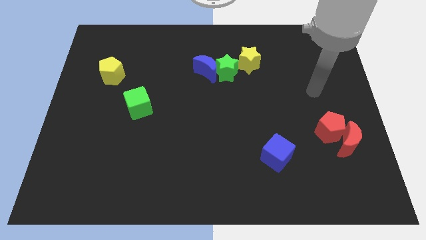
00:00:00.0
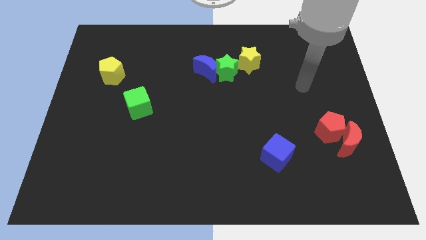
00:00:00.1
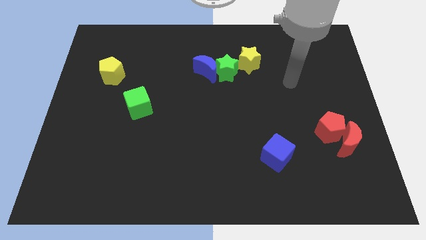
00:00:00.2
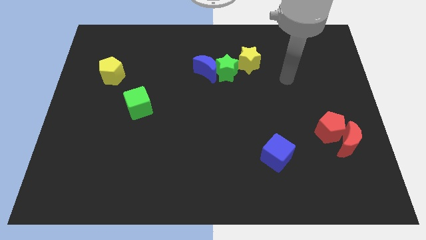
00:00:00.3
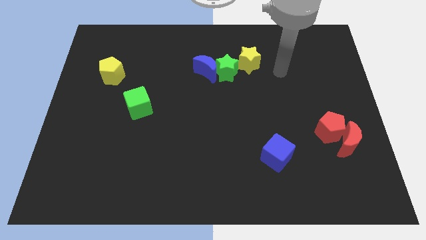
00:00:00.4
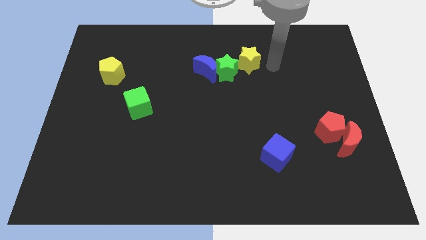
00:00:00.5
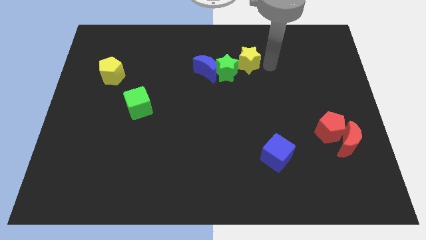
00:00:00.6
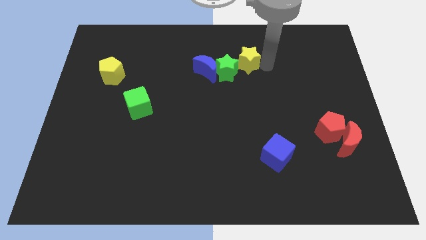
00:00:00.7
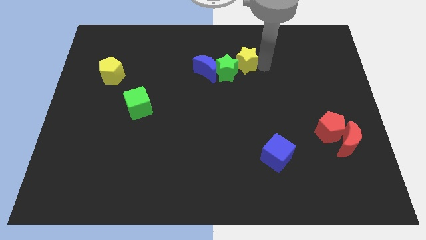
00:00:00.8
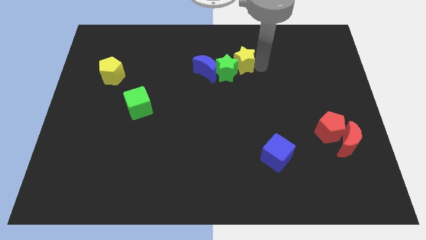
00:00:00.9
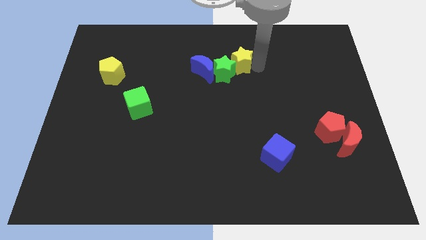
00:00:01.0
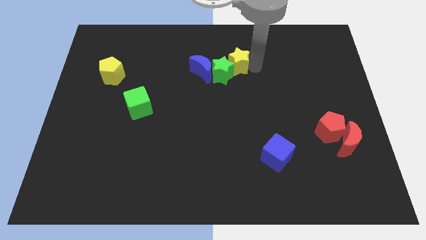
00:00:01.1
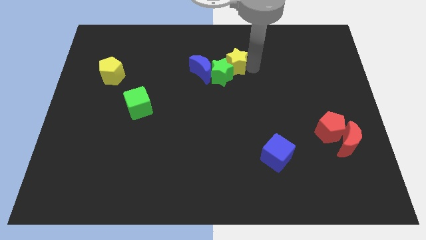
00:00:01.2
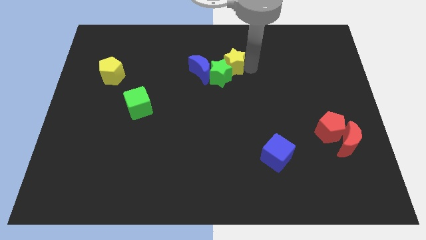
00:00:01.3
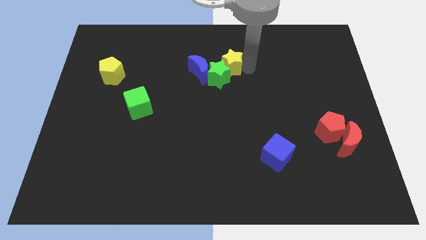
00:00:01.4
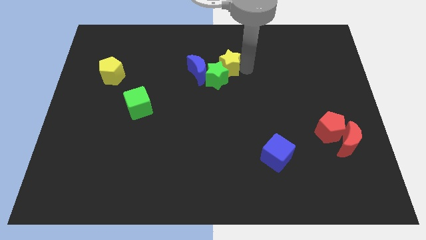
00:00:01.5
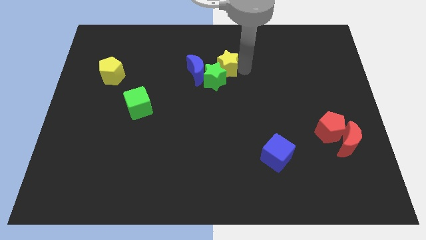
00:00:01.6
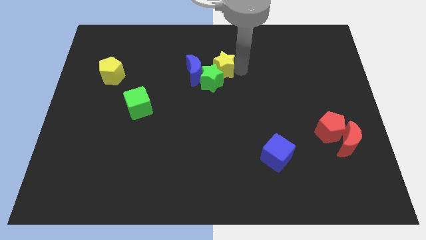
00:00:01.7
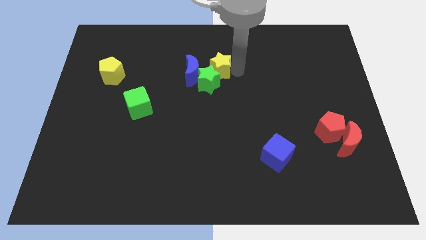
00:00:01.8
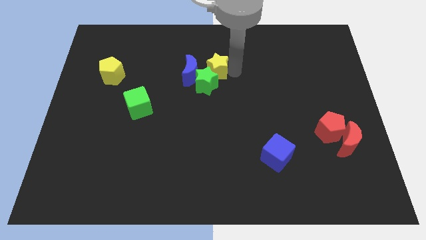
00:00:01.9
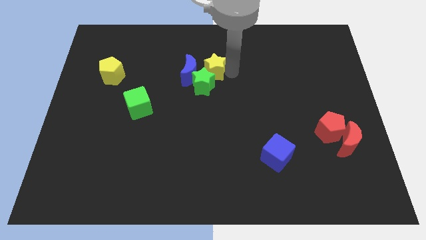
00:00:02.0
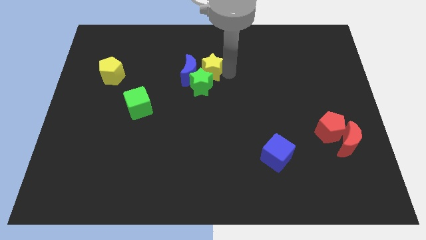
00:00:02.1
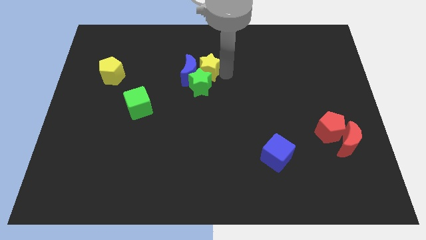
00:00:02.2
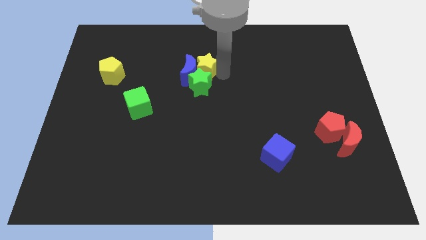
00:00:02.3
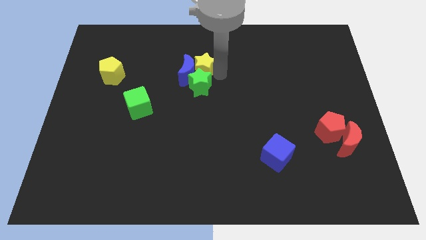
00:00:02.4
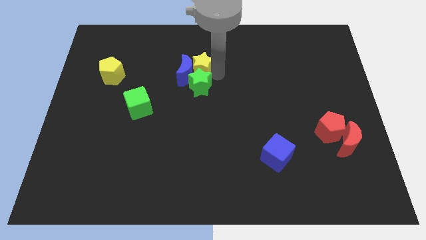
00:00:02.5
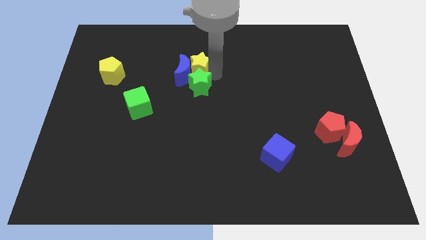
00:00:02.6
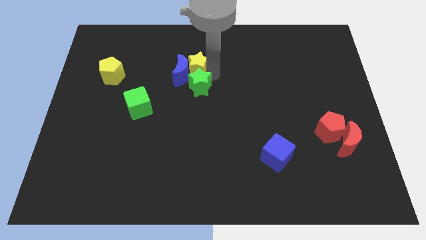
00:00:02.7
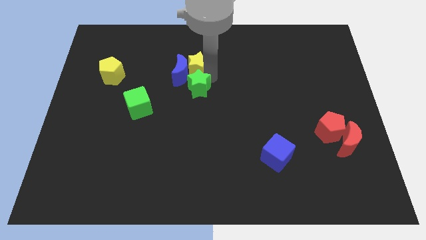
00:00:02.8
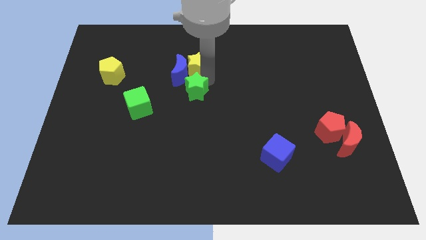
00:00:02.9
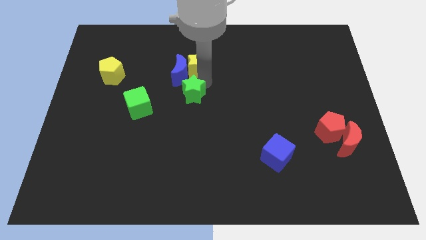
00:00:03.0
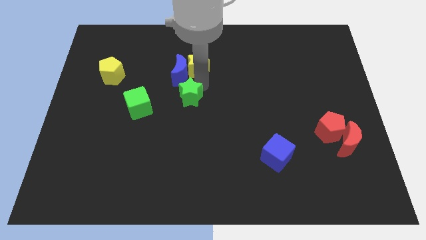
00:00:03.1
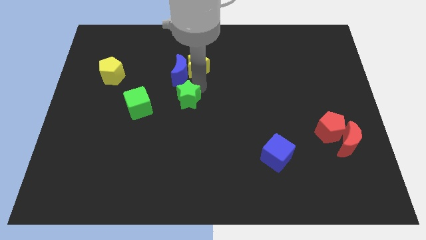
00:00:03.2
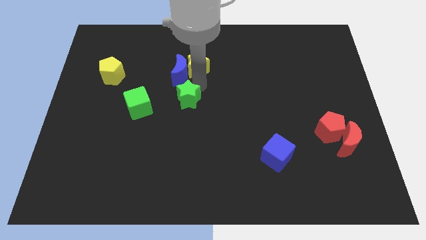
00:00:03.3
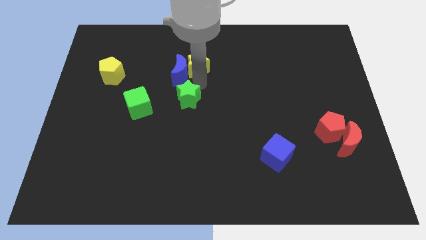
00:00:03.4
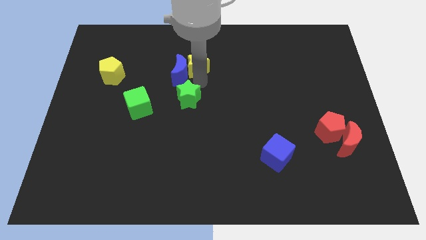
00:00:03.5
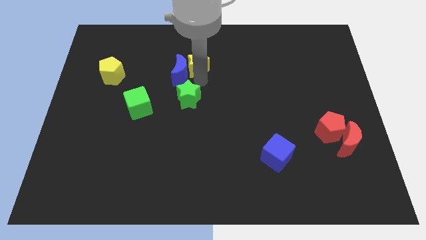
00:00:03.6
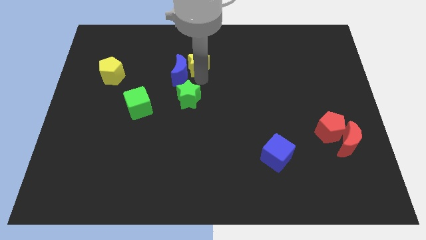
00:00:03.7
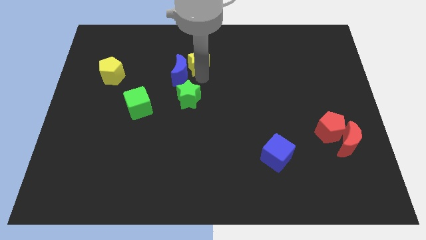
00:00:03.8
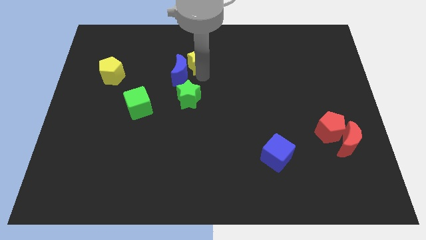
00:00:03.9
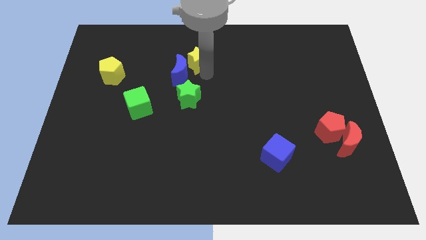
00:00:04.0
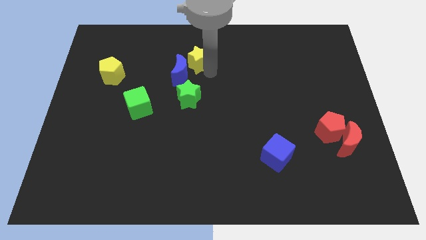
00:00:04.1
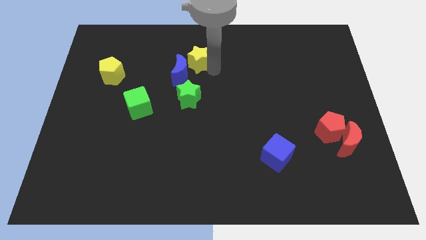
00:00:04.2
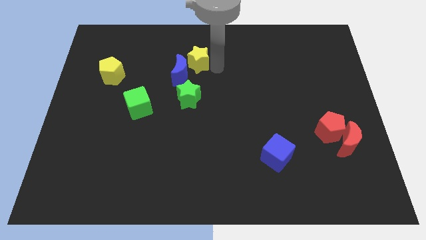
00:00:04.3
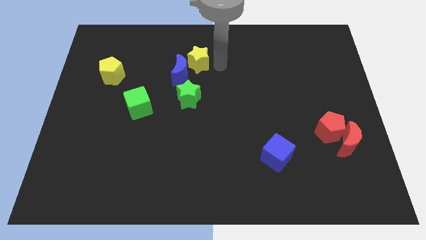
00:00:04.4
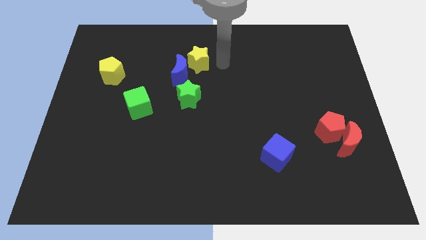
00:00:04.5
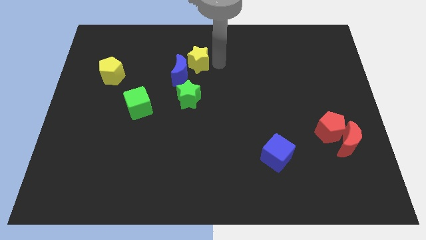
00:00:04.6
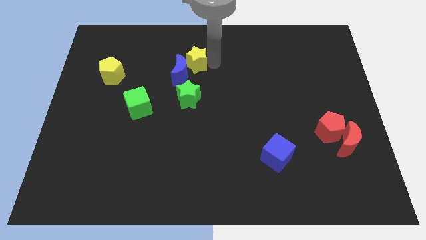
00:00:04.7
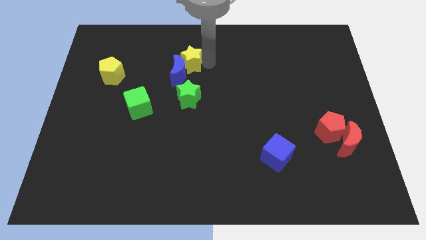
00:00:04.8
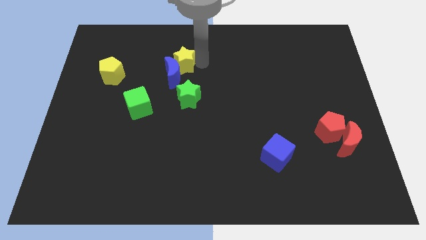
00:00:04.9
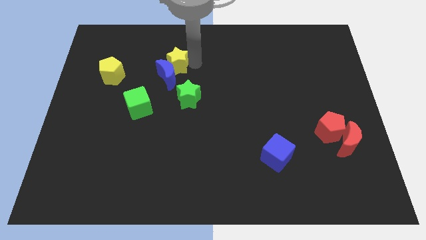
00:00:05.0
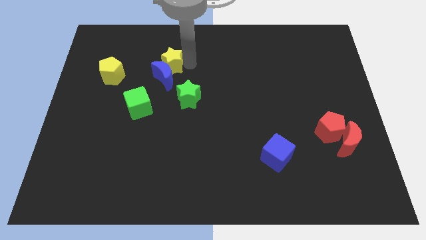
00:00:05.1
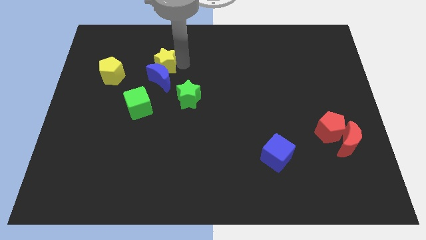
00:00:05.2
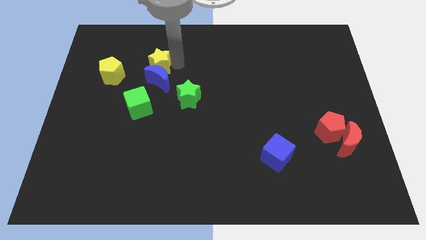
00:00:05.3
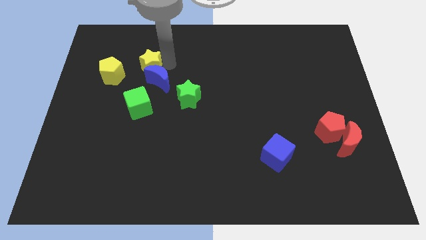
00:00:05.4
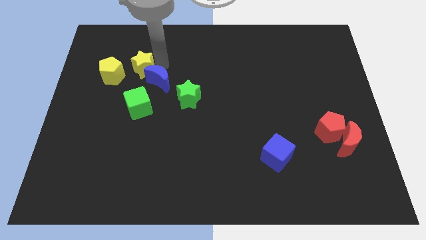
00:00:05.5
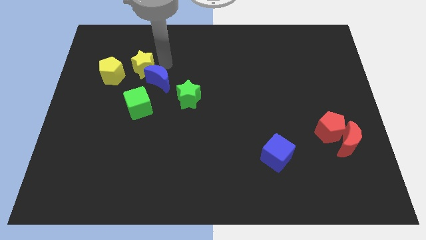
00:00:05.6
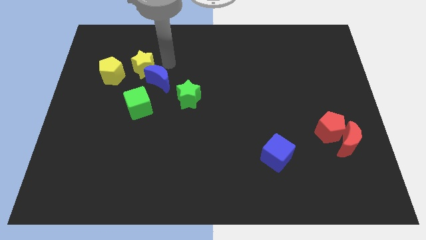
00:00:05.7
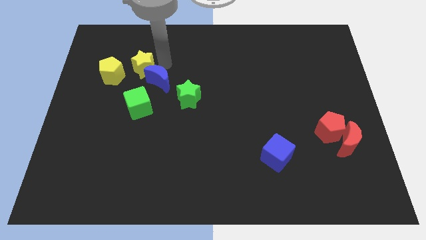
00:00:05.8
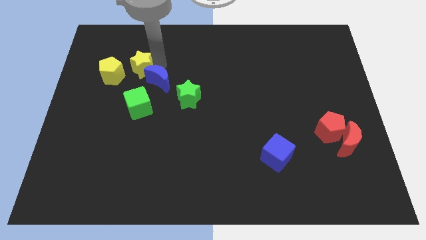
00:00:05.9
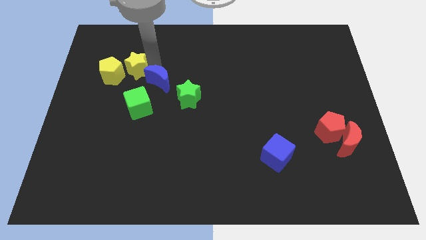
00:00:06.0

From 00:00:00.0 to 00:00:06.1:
slide the yellow star towards the yellow pentagon

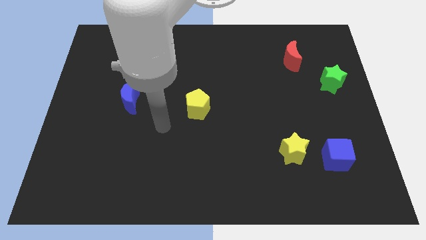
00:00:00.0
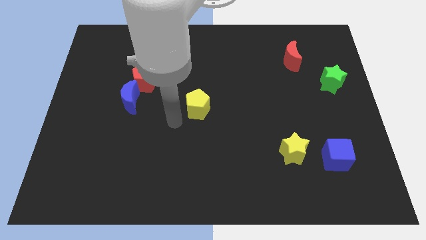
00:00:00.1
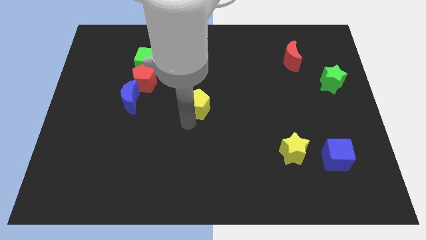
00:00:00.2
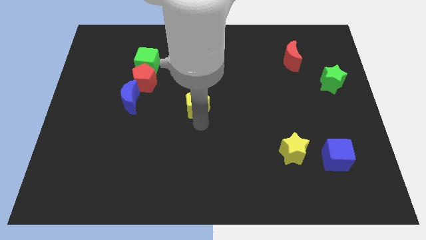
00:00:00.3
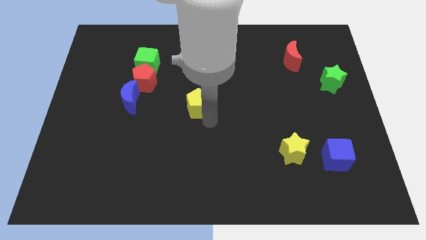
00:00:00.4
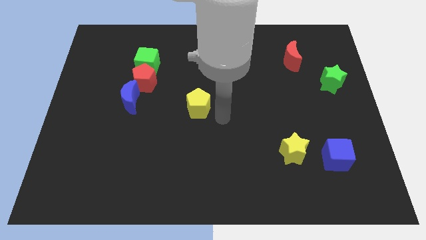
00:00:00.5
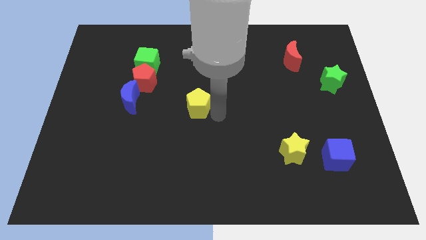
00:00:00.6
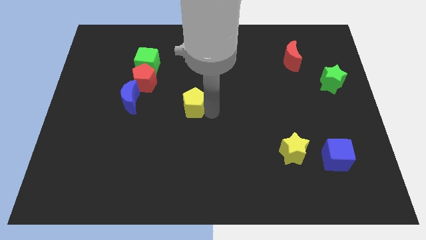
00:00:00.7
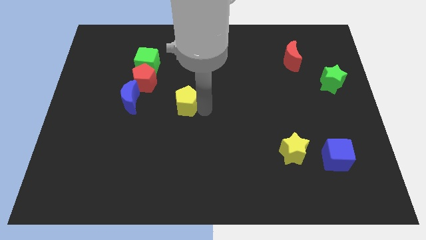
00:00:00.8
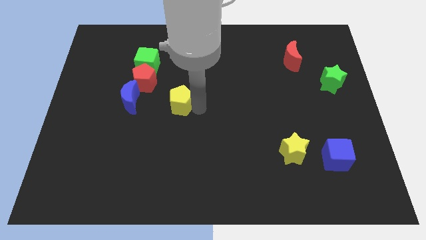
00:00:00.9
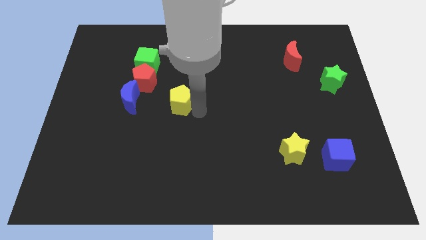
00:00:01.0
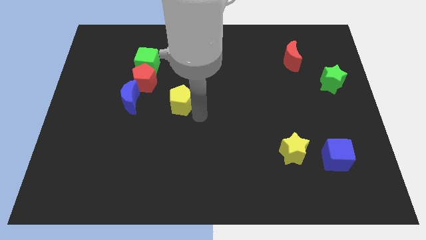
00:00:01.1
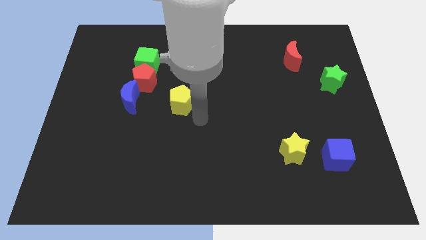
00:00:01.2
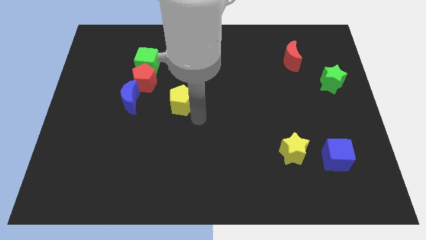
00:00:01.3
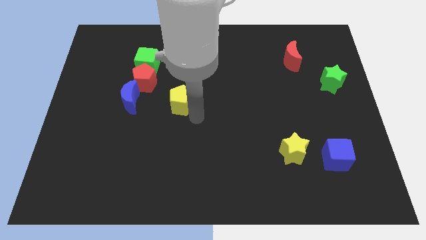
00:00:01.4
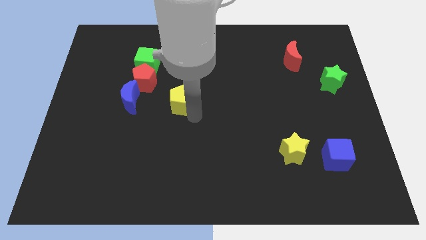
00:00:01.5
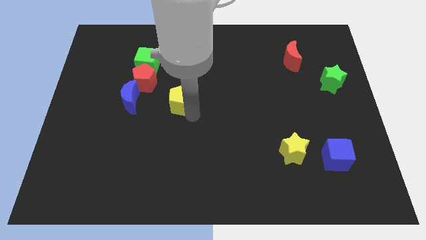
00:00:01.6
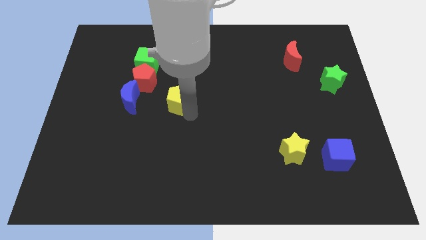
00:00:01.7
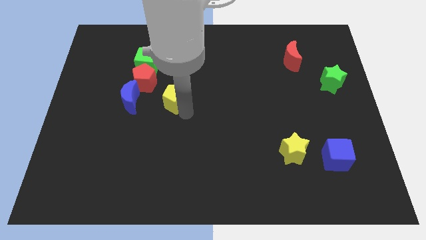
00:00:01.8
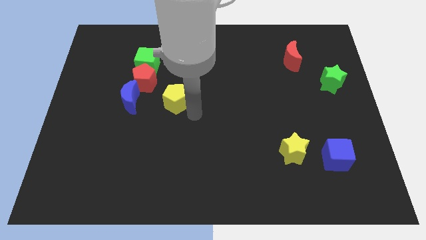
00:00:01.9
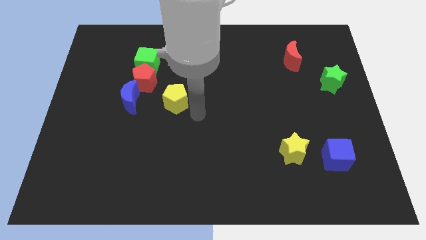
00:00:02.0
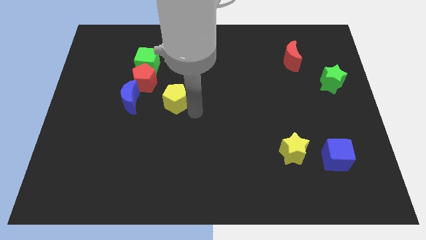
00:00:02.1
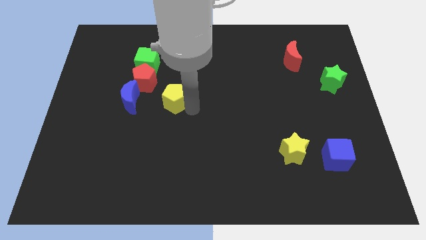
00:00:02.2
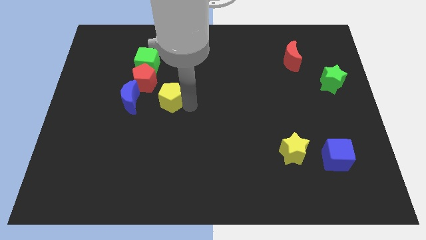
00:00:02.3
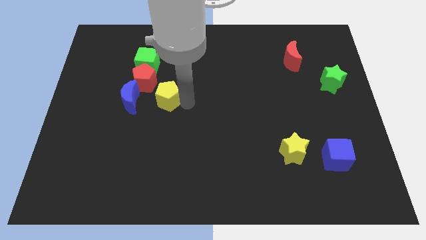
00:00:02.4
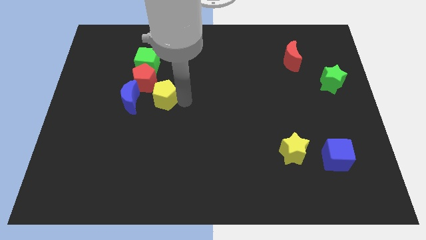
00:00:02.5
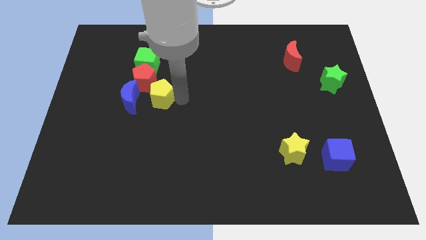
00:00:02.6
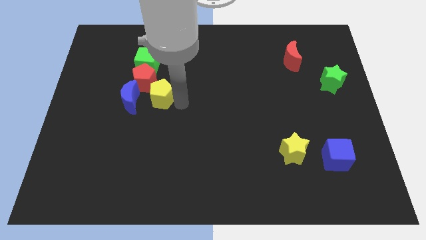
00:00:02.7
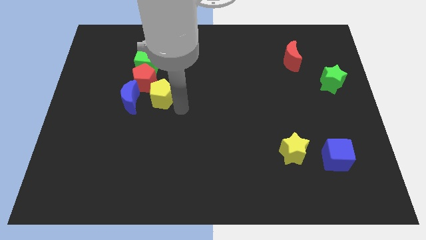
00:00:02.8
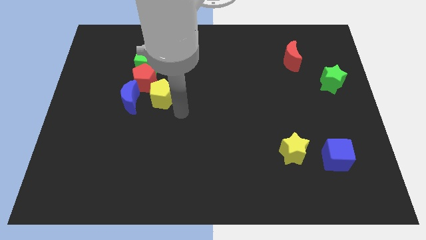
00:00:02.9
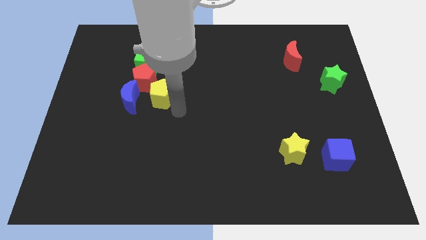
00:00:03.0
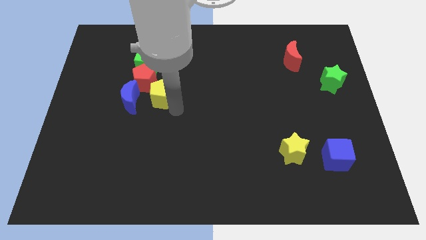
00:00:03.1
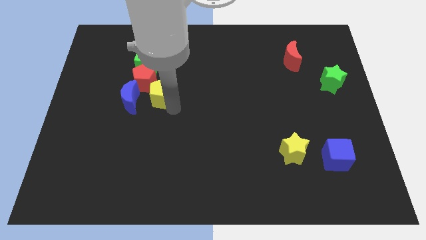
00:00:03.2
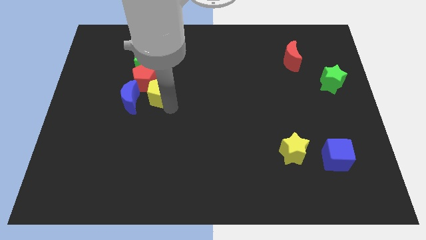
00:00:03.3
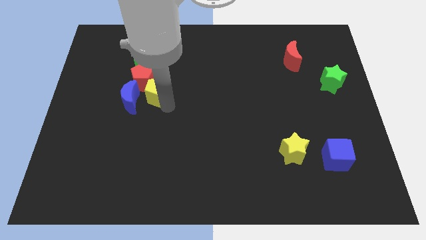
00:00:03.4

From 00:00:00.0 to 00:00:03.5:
put the yellow pentagon towards the red pentagon
